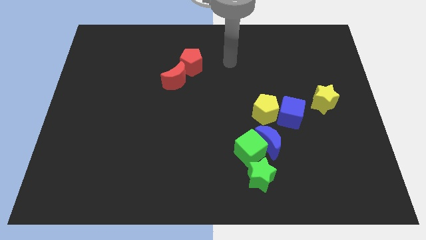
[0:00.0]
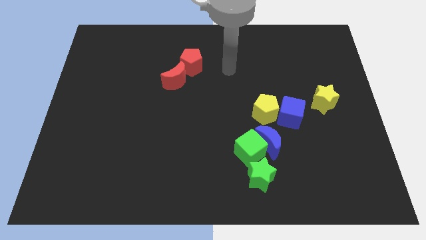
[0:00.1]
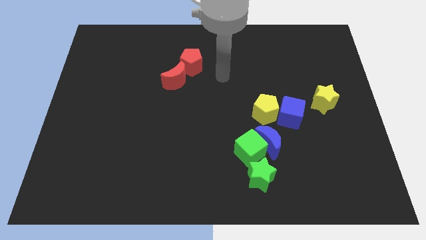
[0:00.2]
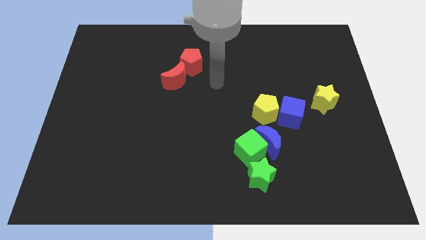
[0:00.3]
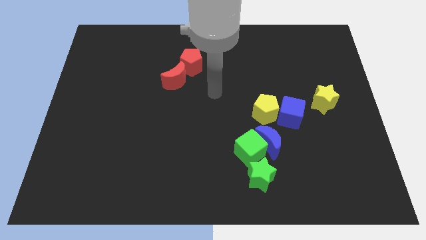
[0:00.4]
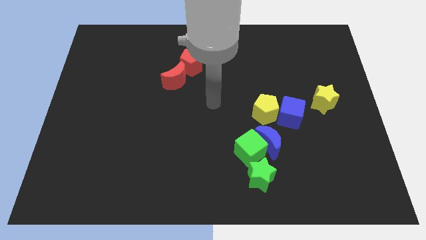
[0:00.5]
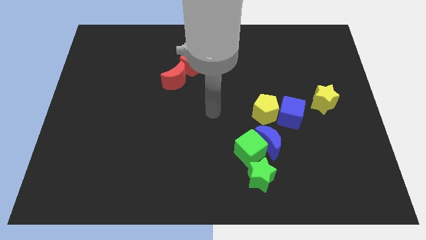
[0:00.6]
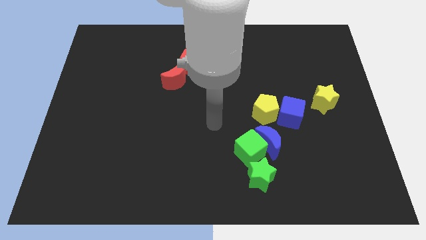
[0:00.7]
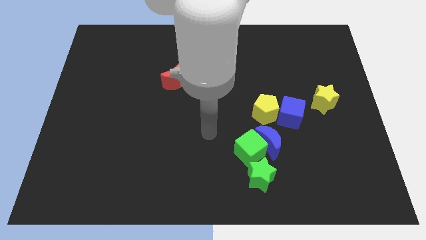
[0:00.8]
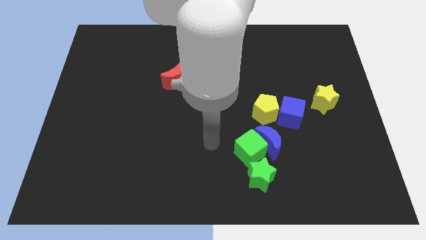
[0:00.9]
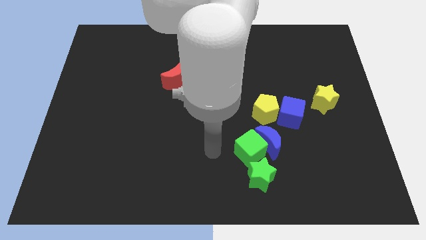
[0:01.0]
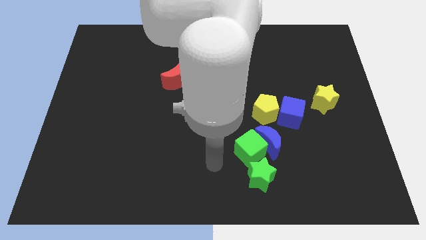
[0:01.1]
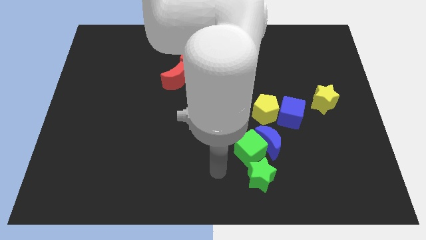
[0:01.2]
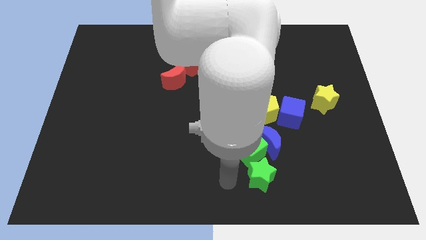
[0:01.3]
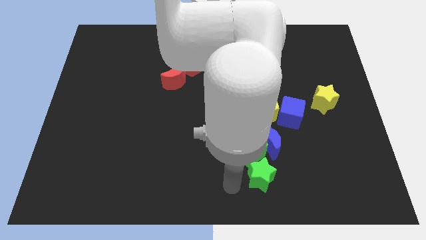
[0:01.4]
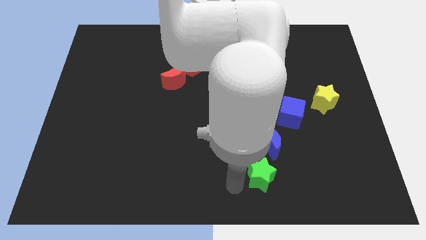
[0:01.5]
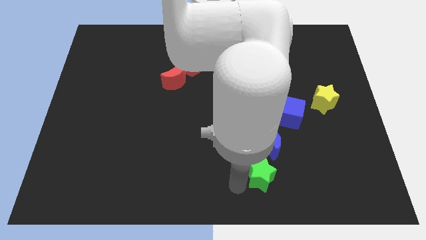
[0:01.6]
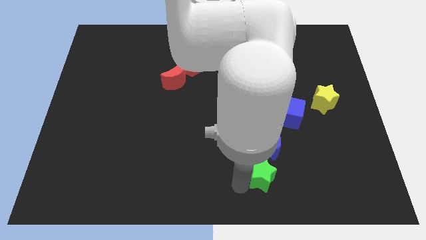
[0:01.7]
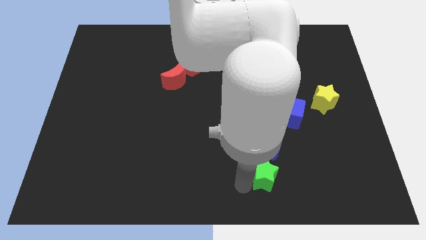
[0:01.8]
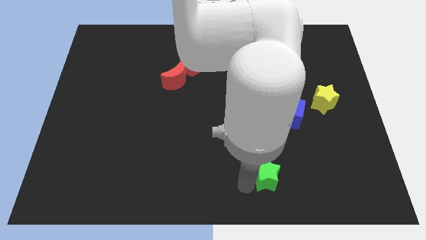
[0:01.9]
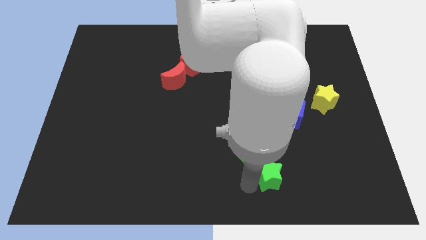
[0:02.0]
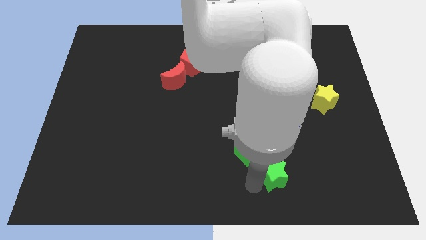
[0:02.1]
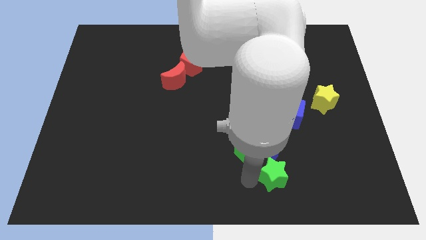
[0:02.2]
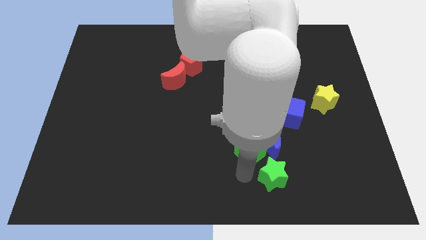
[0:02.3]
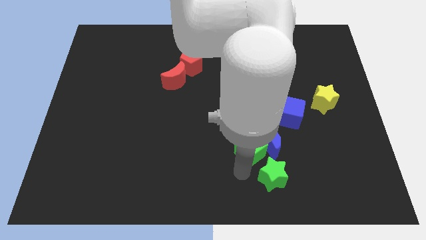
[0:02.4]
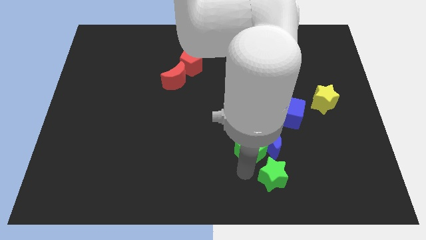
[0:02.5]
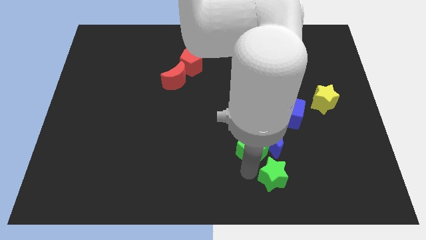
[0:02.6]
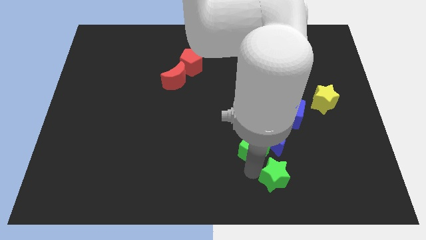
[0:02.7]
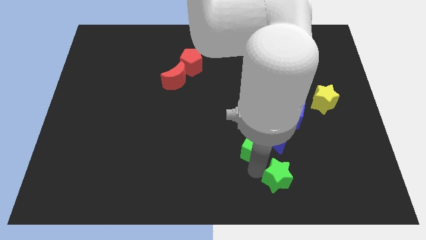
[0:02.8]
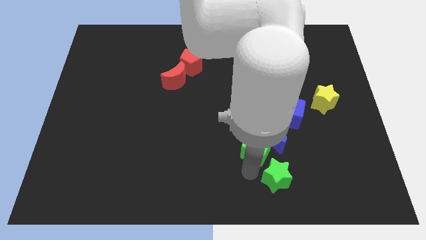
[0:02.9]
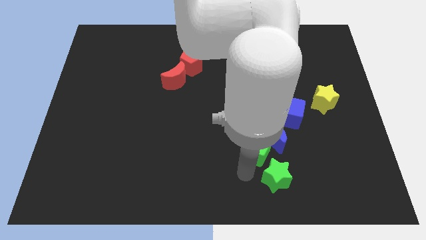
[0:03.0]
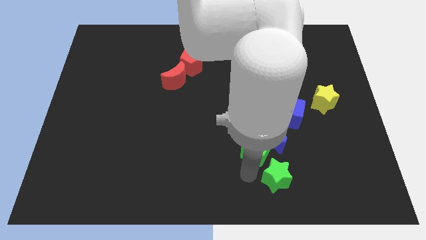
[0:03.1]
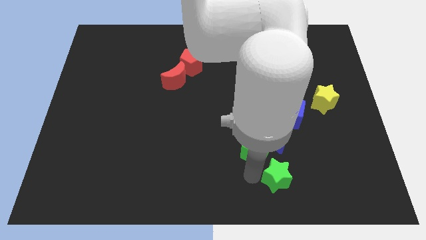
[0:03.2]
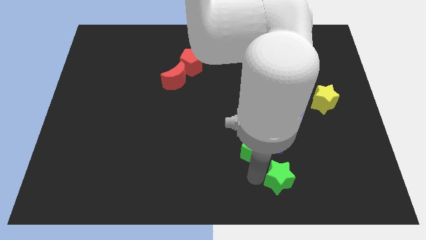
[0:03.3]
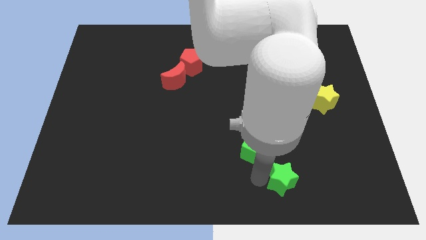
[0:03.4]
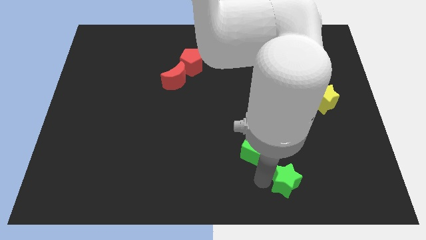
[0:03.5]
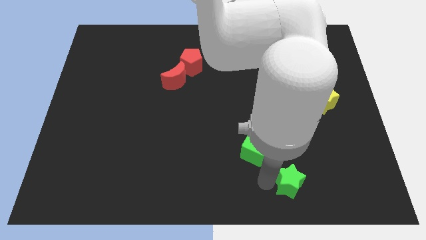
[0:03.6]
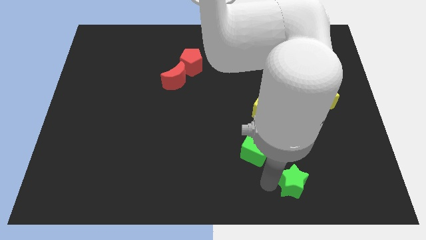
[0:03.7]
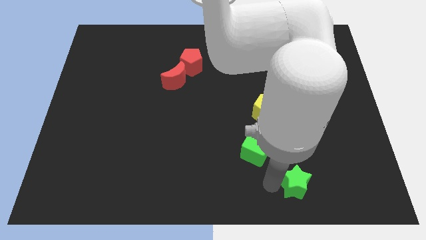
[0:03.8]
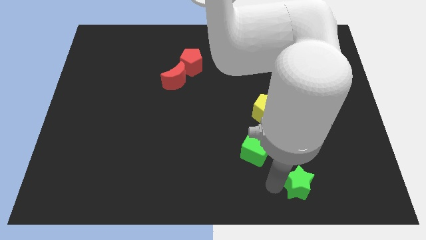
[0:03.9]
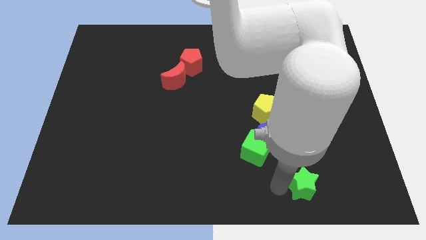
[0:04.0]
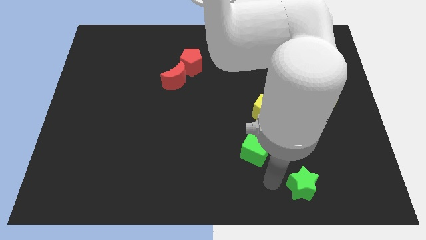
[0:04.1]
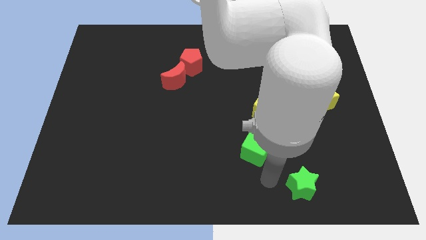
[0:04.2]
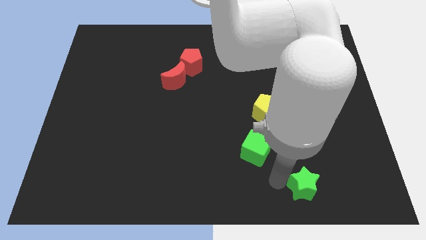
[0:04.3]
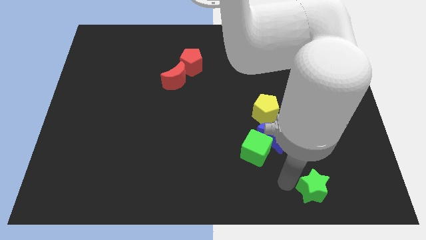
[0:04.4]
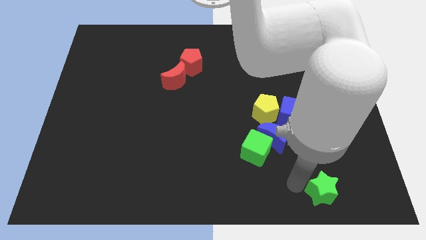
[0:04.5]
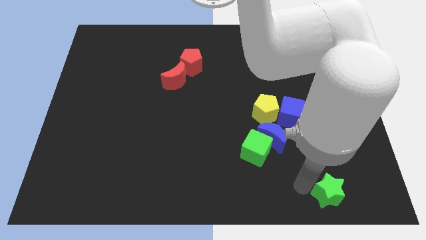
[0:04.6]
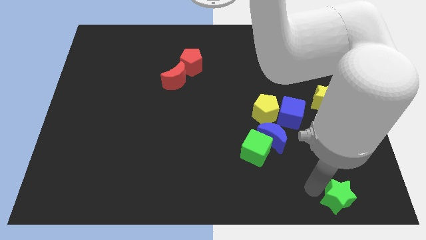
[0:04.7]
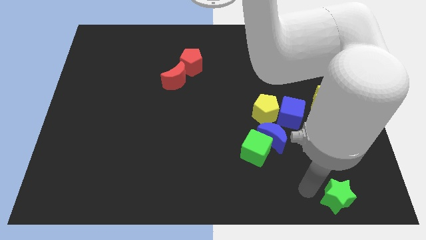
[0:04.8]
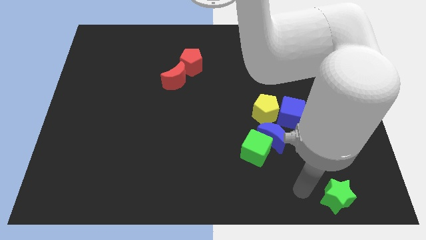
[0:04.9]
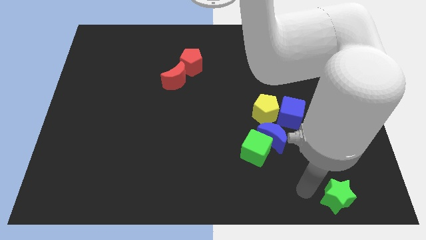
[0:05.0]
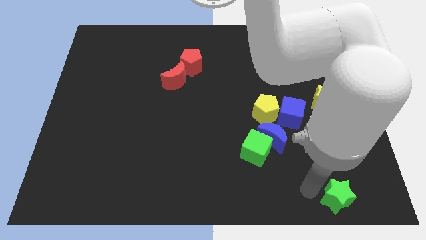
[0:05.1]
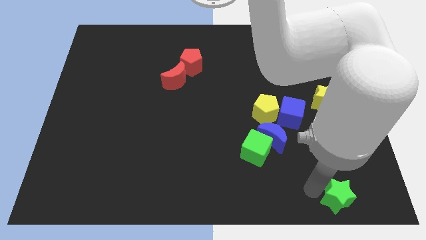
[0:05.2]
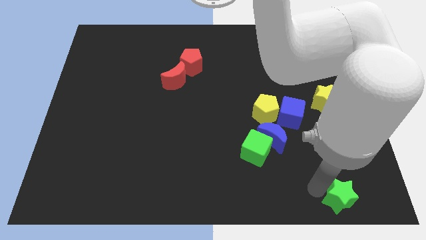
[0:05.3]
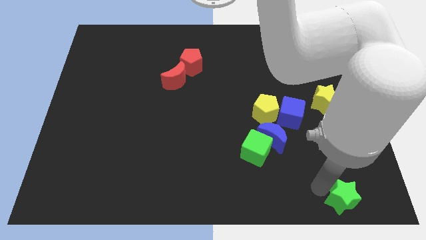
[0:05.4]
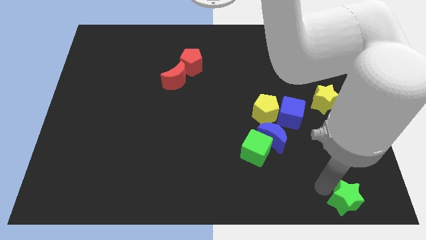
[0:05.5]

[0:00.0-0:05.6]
put the green star to the bottom right

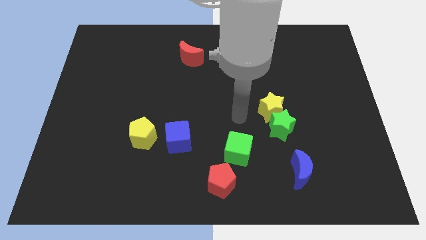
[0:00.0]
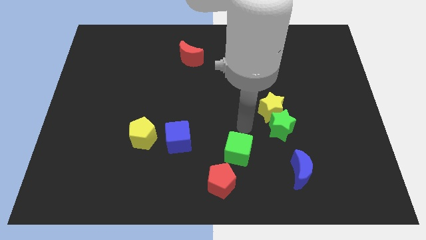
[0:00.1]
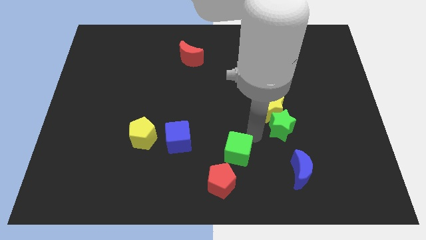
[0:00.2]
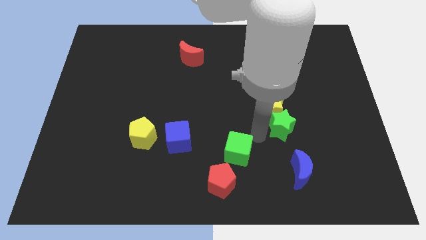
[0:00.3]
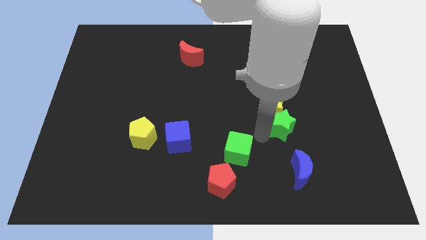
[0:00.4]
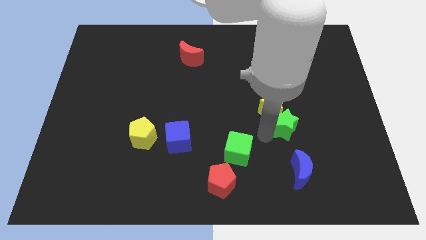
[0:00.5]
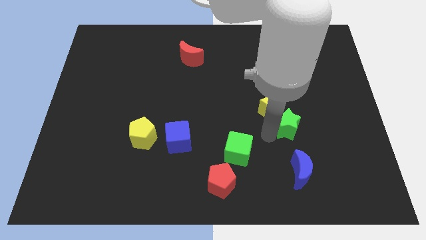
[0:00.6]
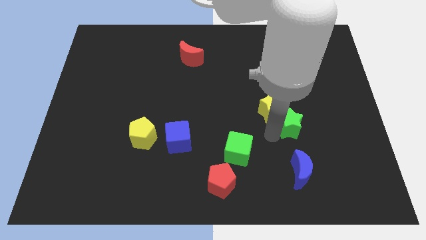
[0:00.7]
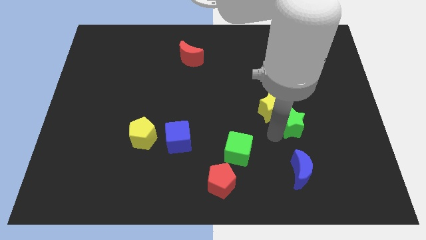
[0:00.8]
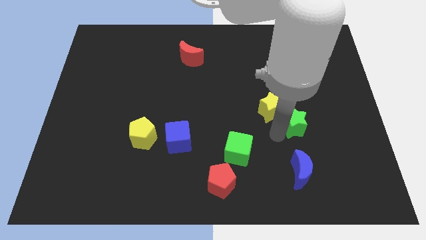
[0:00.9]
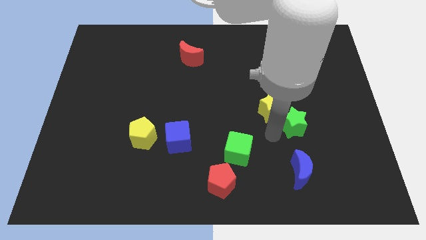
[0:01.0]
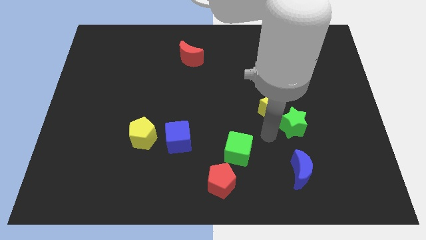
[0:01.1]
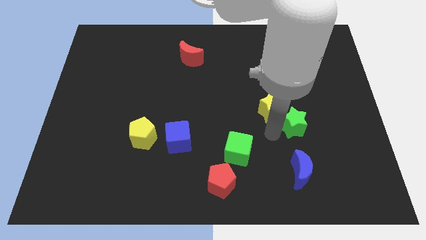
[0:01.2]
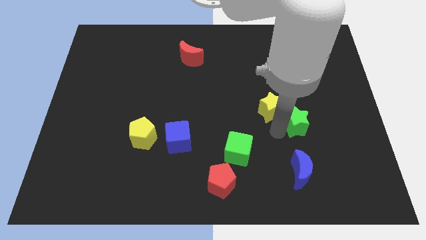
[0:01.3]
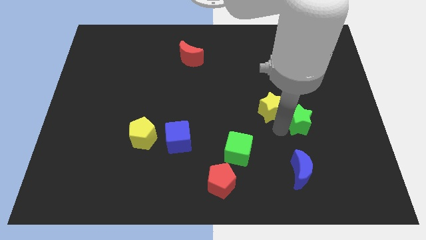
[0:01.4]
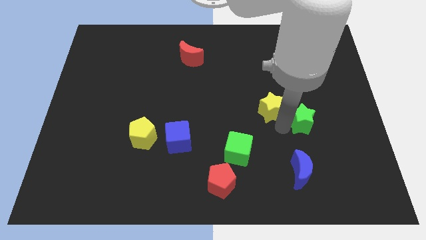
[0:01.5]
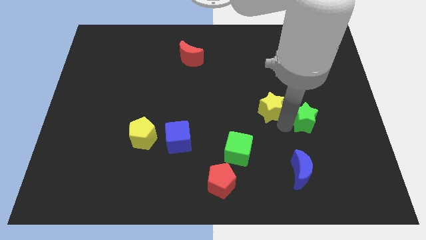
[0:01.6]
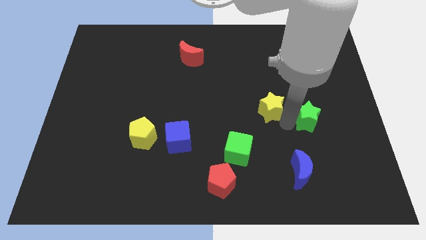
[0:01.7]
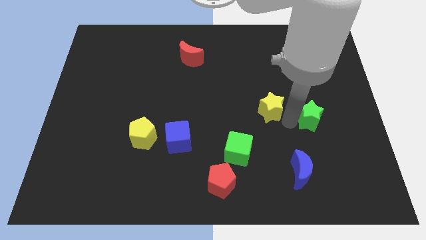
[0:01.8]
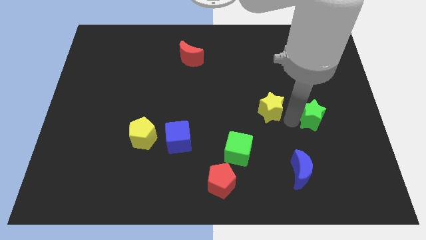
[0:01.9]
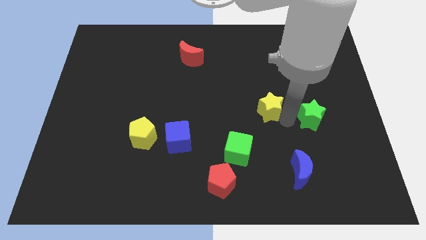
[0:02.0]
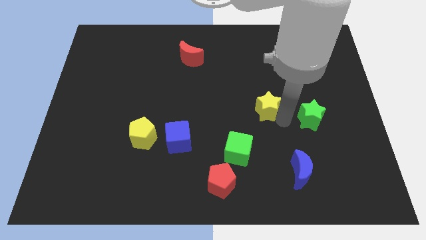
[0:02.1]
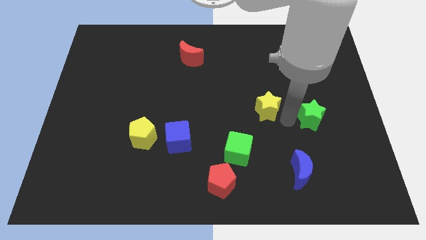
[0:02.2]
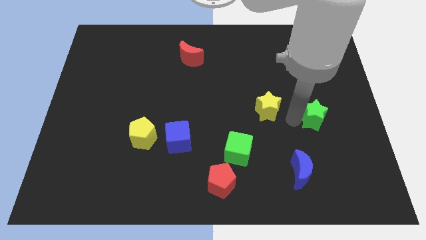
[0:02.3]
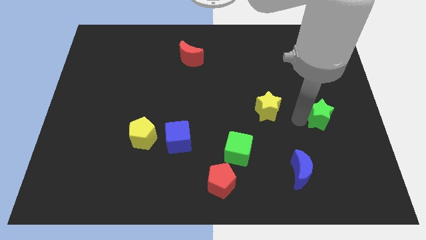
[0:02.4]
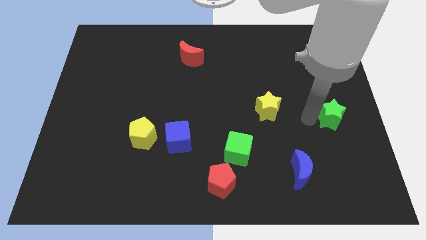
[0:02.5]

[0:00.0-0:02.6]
slide the green star to the center right
